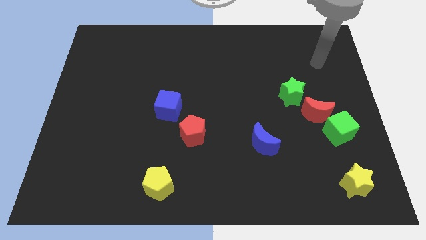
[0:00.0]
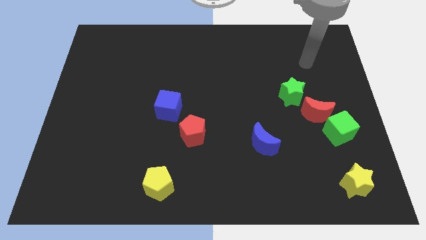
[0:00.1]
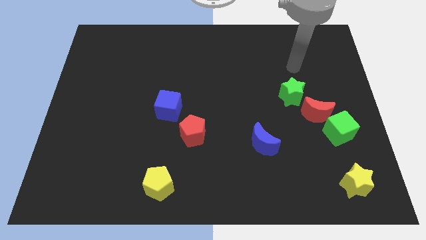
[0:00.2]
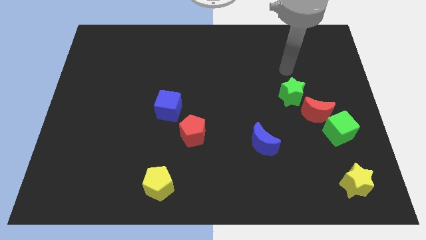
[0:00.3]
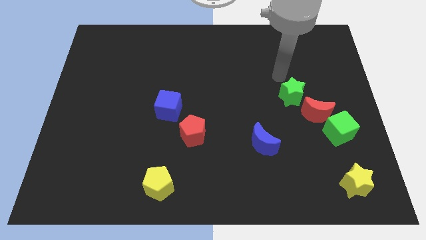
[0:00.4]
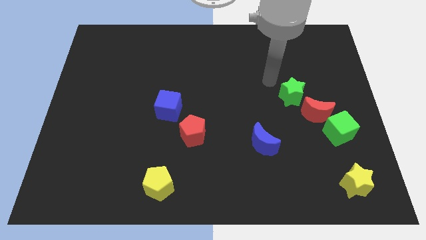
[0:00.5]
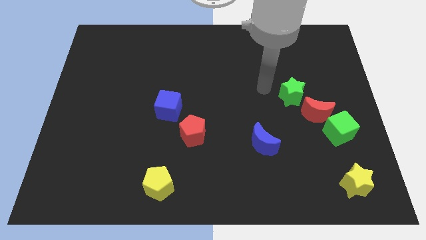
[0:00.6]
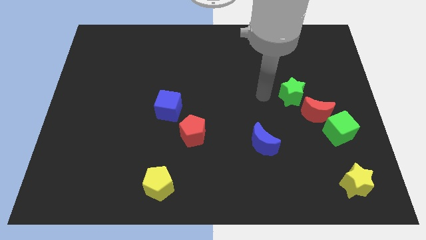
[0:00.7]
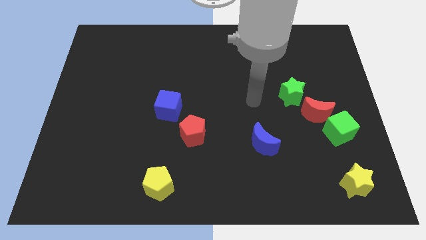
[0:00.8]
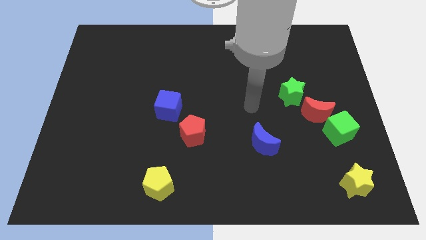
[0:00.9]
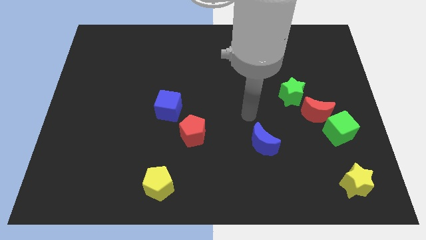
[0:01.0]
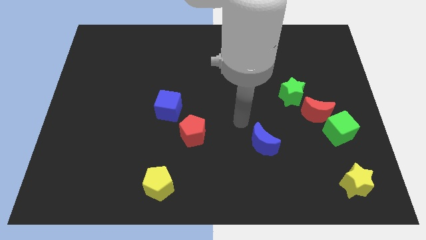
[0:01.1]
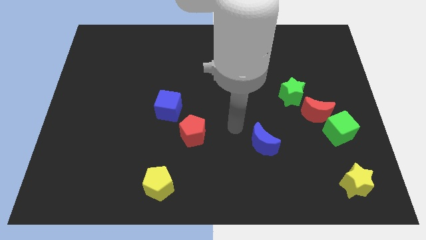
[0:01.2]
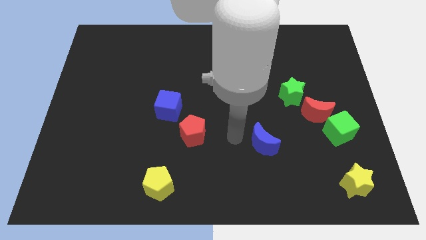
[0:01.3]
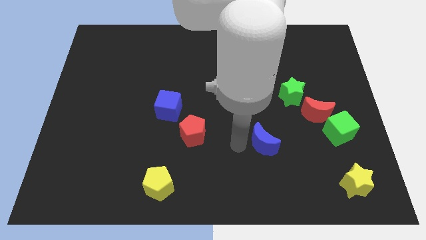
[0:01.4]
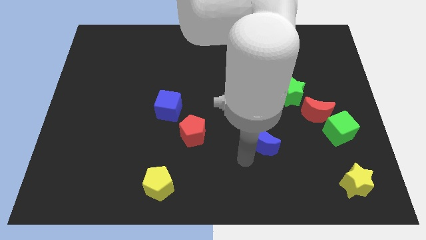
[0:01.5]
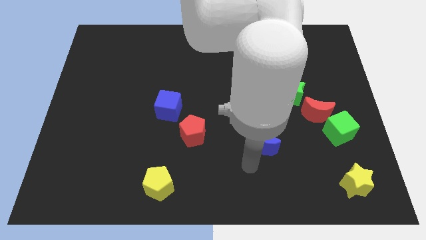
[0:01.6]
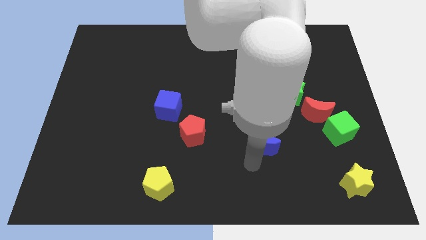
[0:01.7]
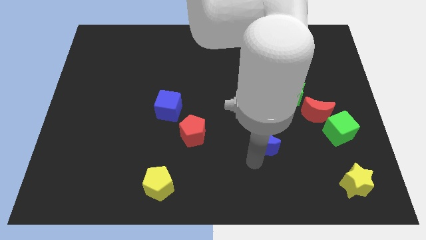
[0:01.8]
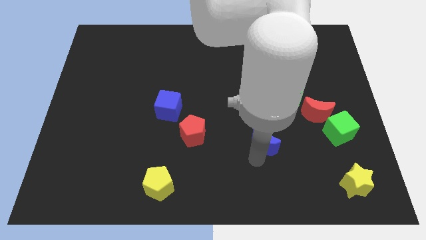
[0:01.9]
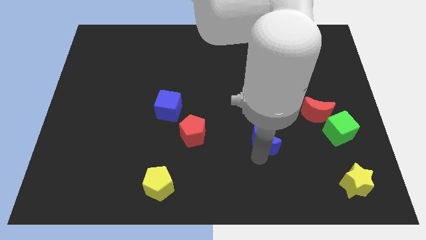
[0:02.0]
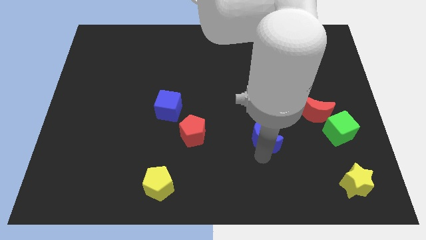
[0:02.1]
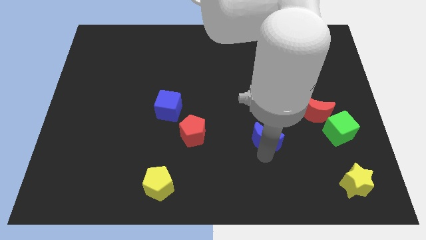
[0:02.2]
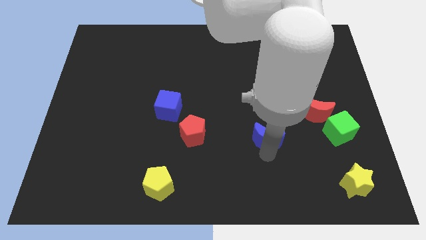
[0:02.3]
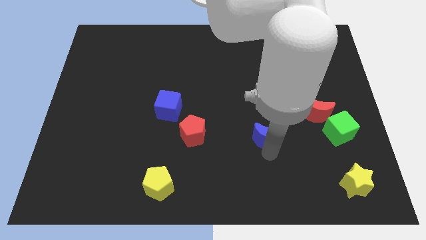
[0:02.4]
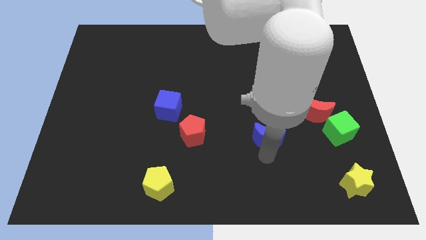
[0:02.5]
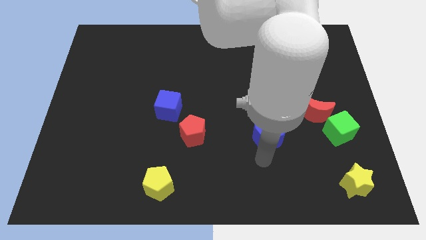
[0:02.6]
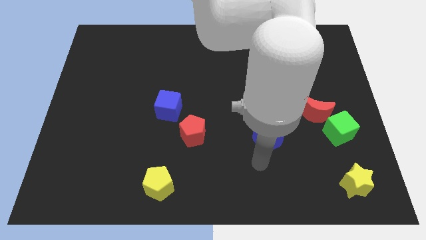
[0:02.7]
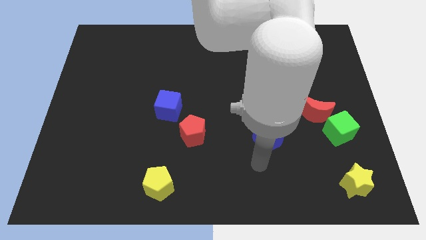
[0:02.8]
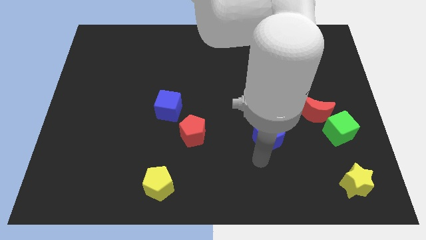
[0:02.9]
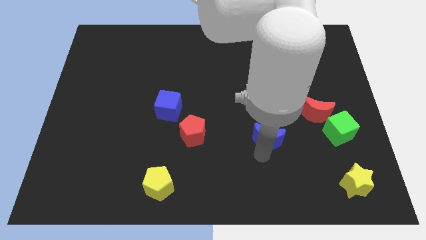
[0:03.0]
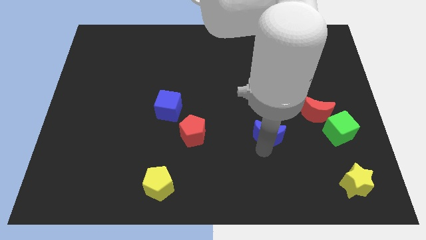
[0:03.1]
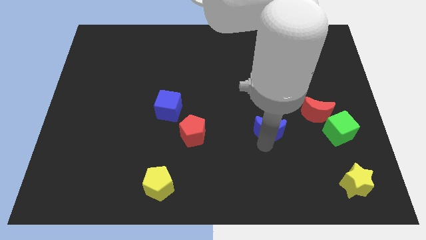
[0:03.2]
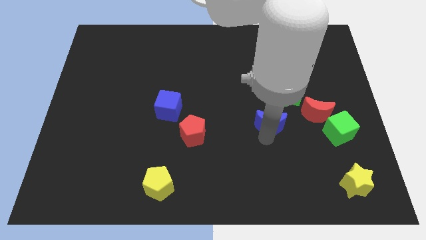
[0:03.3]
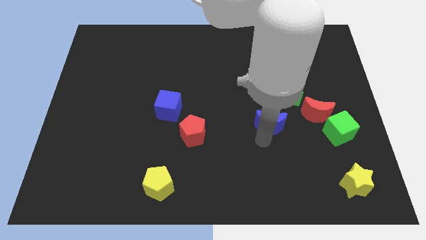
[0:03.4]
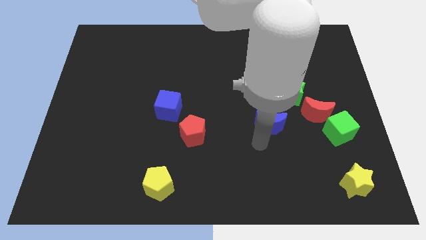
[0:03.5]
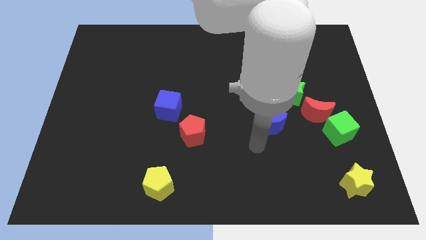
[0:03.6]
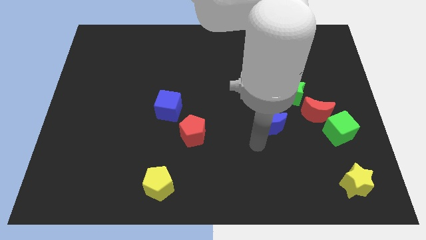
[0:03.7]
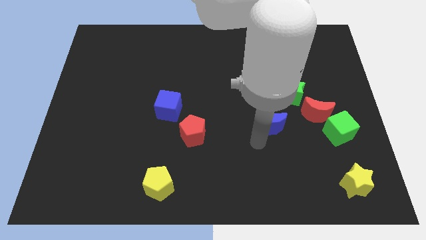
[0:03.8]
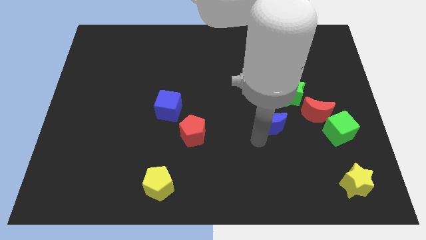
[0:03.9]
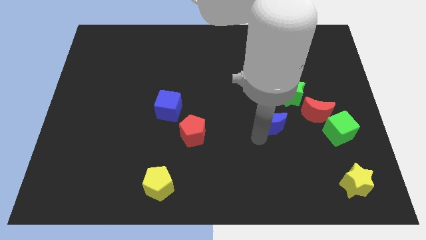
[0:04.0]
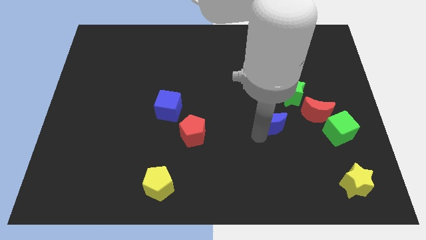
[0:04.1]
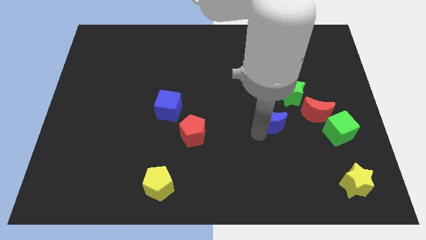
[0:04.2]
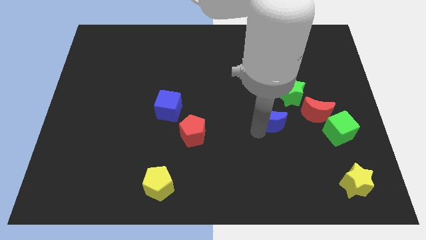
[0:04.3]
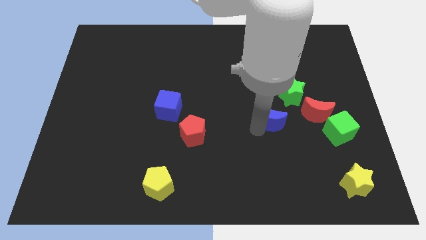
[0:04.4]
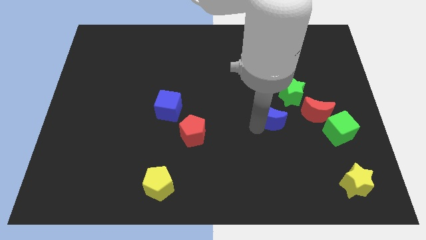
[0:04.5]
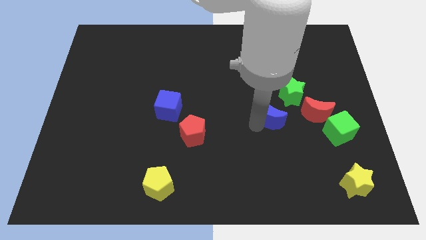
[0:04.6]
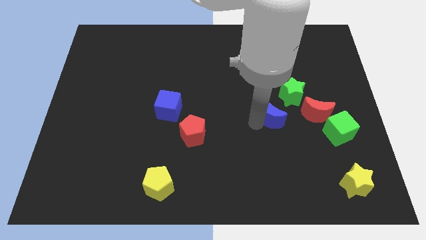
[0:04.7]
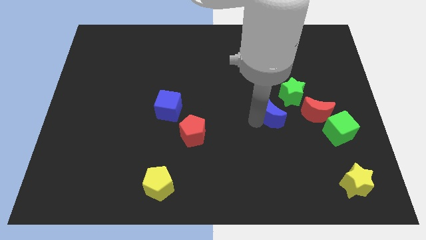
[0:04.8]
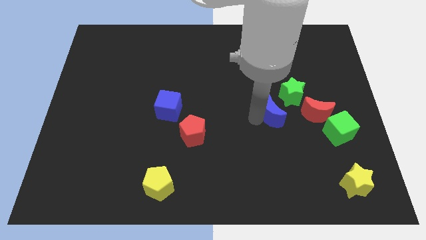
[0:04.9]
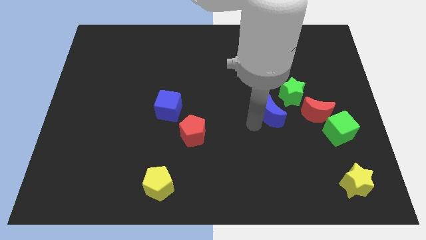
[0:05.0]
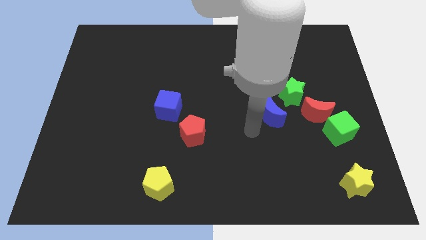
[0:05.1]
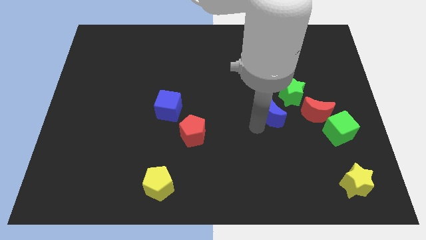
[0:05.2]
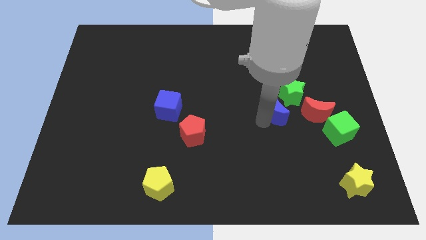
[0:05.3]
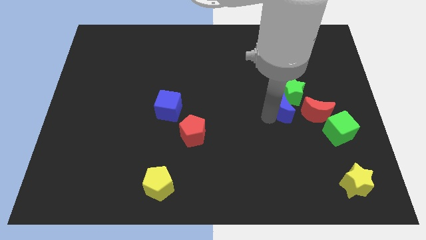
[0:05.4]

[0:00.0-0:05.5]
slide the blue moon close to the green star
